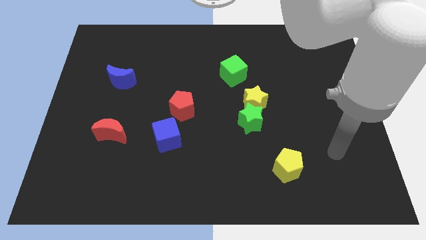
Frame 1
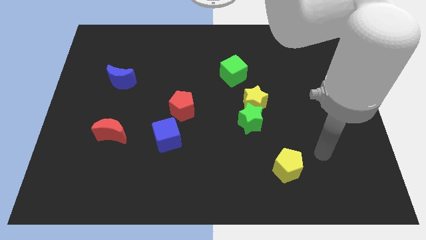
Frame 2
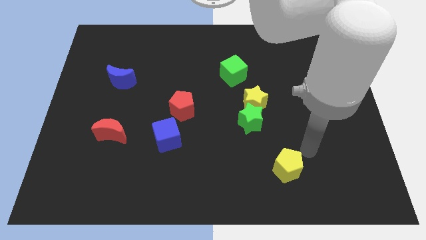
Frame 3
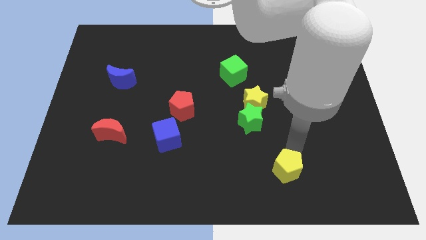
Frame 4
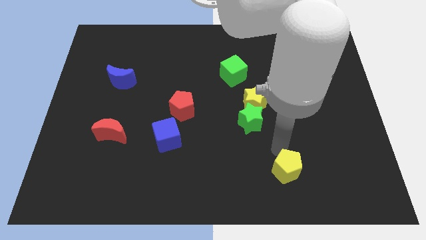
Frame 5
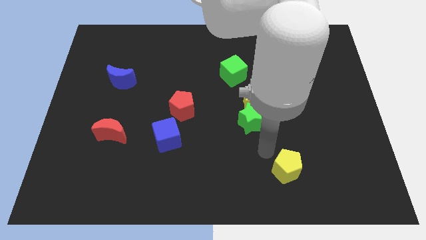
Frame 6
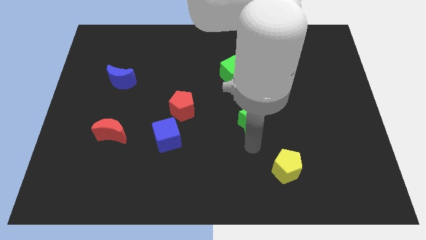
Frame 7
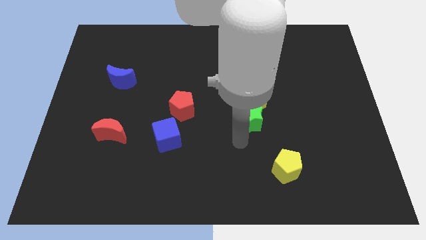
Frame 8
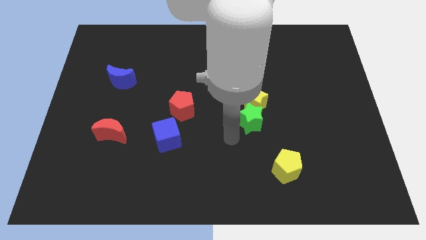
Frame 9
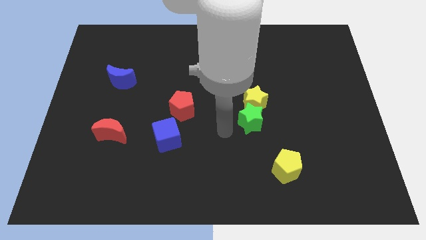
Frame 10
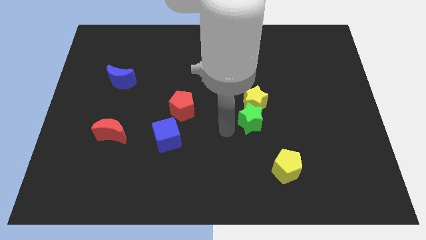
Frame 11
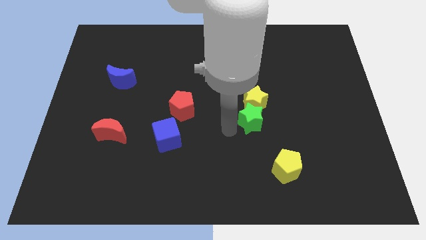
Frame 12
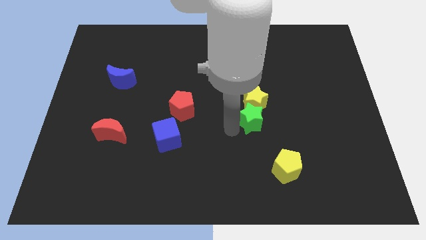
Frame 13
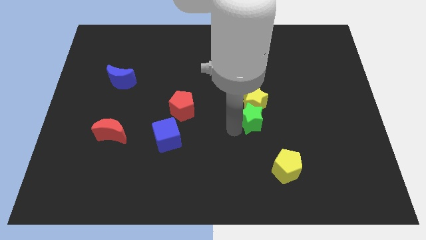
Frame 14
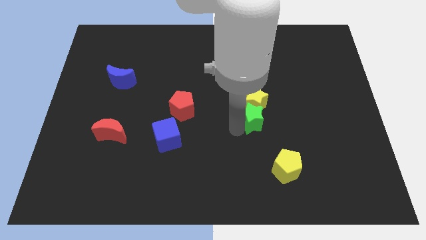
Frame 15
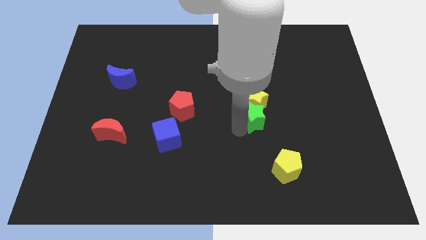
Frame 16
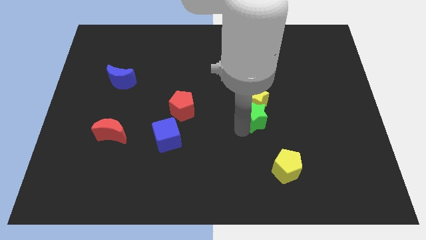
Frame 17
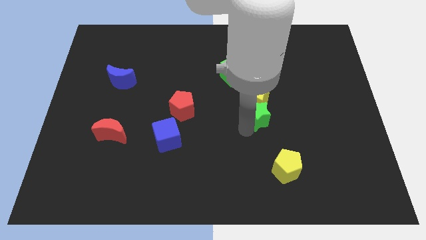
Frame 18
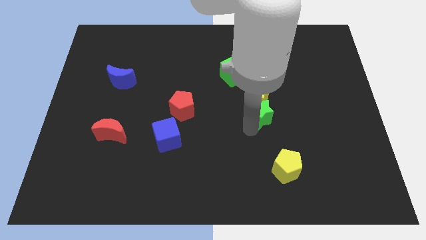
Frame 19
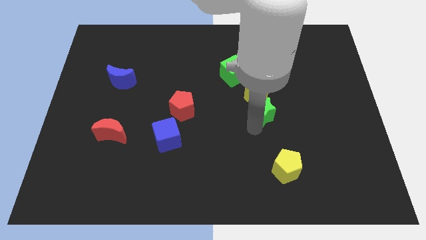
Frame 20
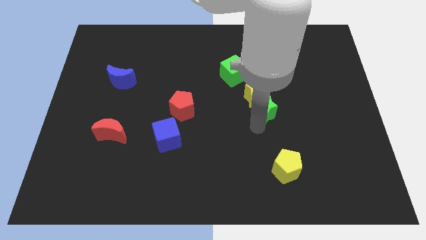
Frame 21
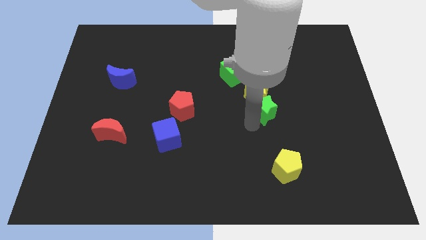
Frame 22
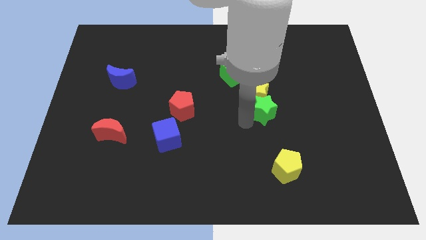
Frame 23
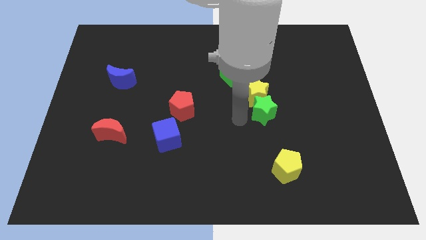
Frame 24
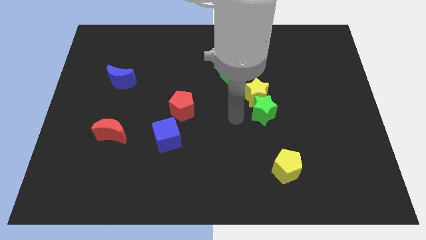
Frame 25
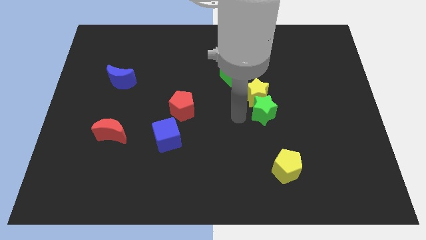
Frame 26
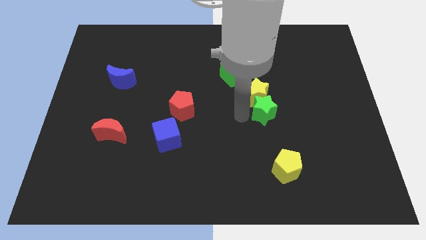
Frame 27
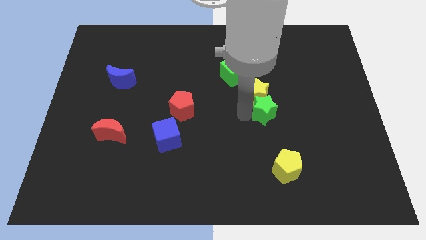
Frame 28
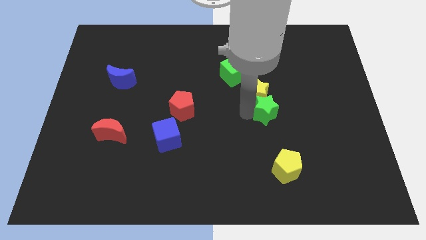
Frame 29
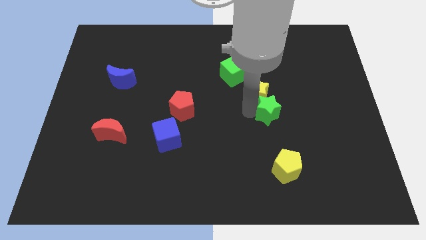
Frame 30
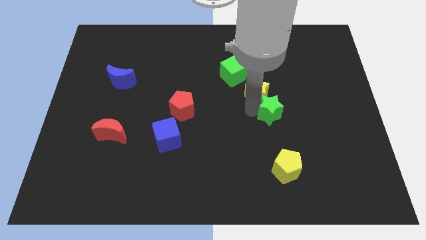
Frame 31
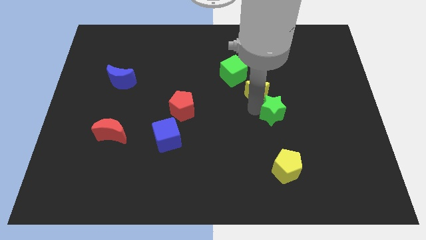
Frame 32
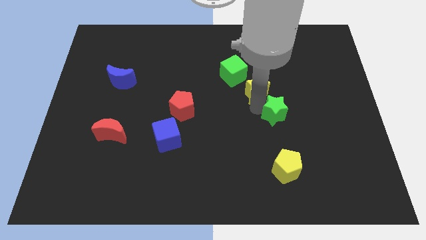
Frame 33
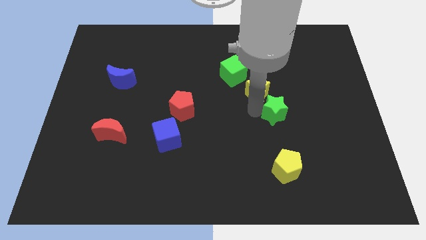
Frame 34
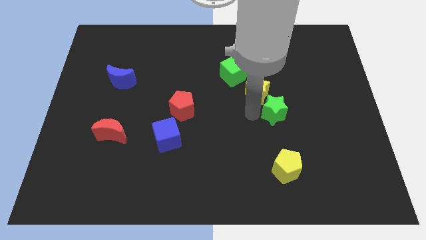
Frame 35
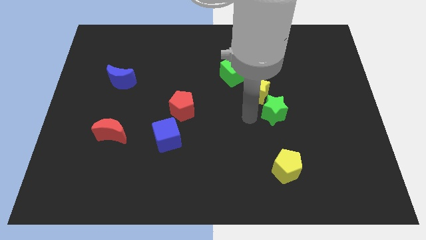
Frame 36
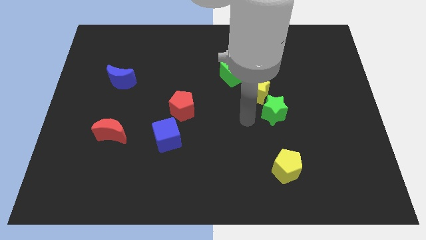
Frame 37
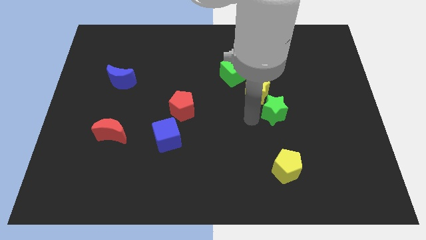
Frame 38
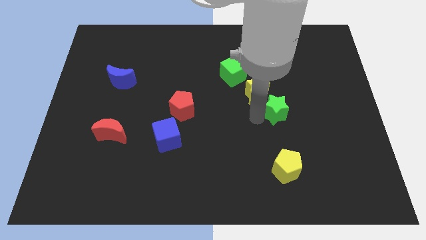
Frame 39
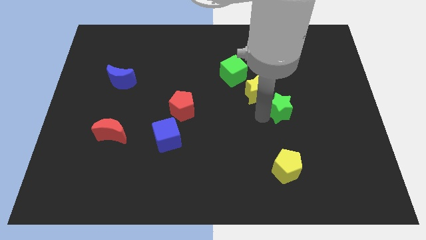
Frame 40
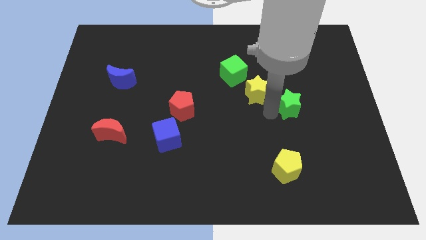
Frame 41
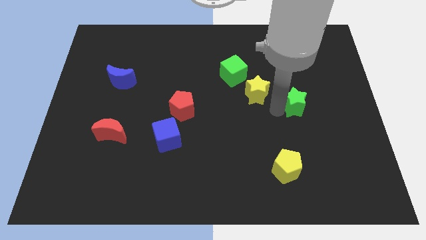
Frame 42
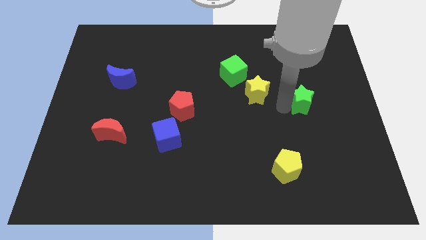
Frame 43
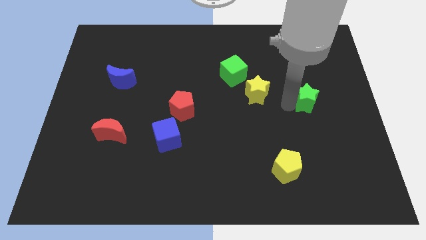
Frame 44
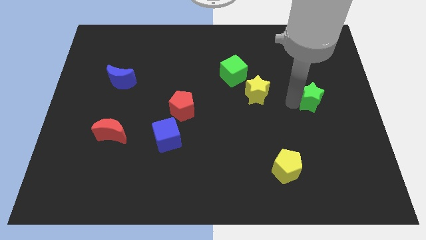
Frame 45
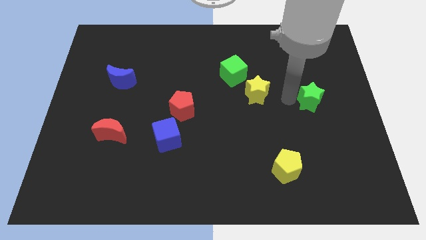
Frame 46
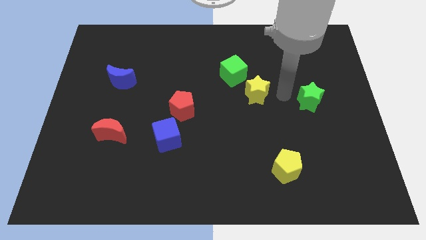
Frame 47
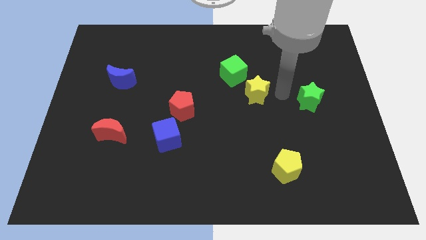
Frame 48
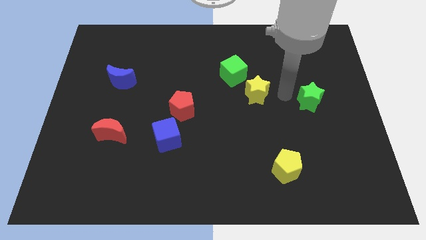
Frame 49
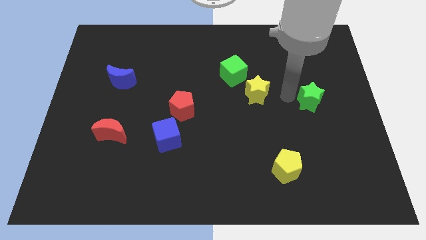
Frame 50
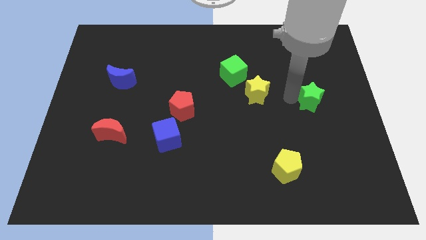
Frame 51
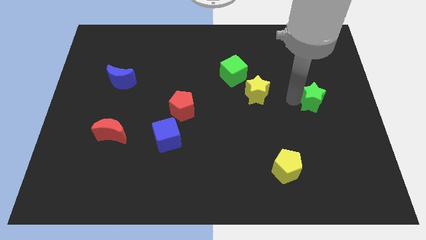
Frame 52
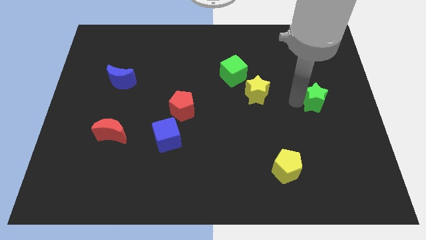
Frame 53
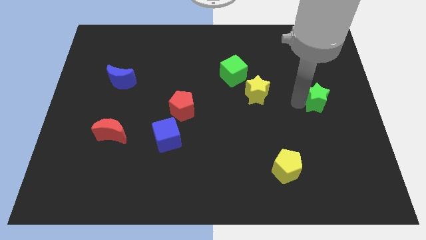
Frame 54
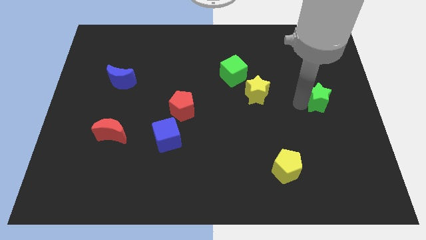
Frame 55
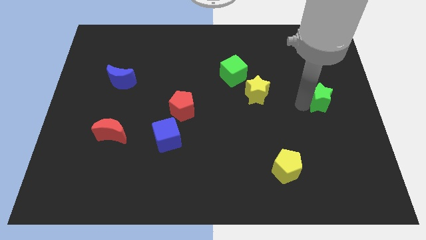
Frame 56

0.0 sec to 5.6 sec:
push the green star to the center right

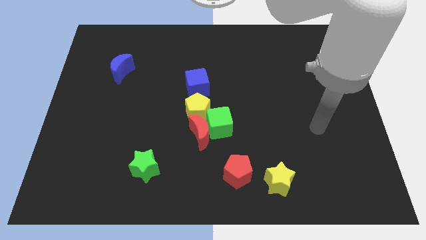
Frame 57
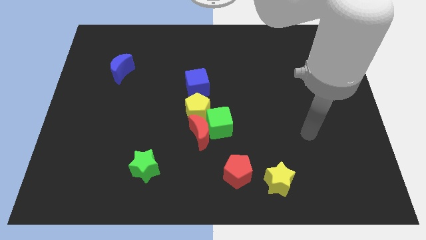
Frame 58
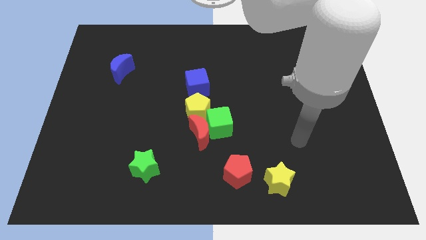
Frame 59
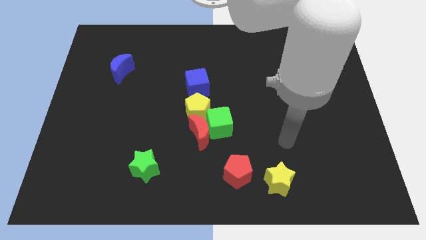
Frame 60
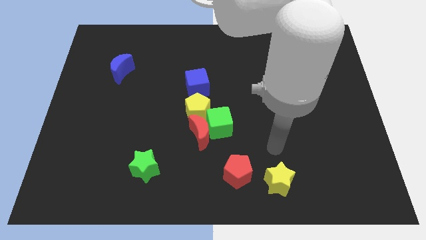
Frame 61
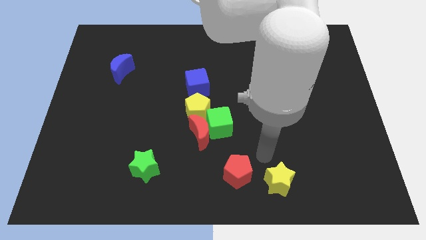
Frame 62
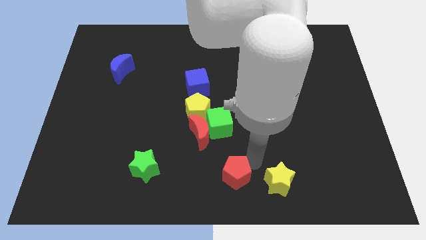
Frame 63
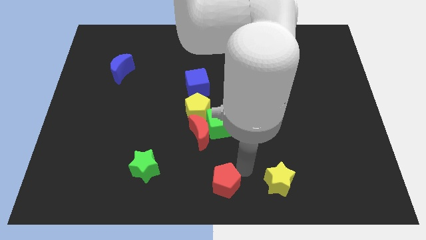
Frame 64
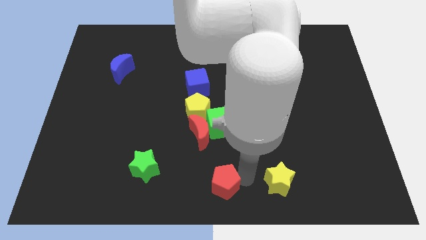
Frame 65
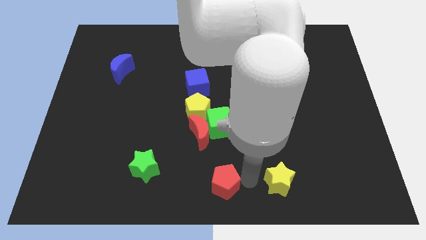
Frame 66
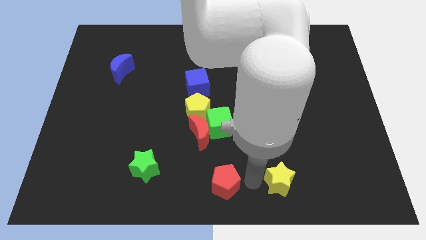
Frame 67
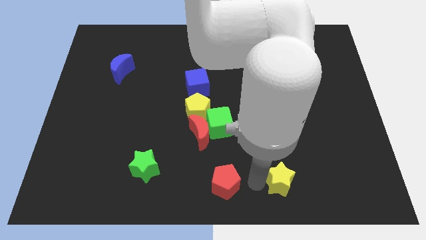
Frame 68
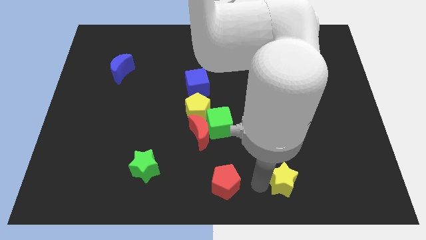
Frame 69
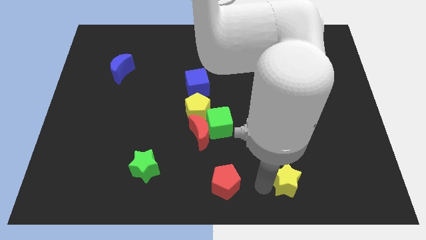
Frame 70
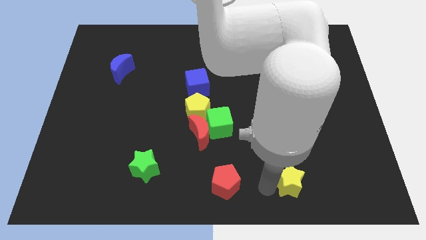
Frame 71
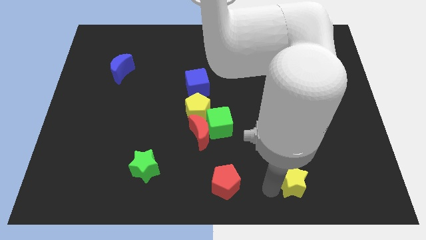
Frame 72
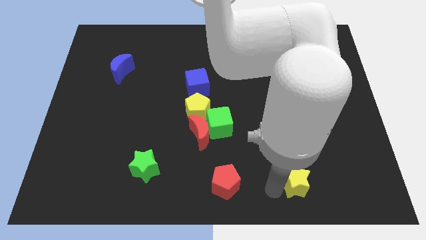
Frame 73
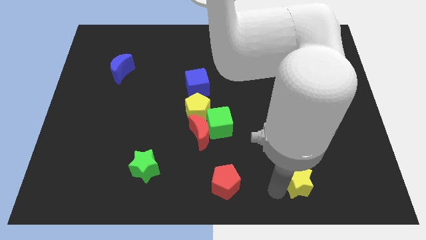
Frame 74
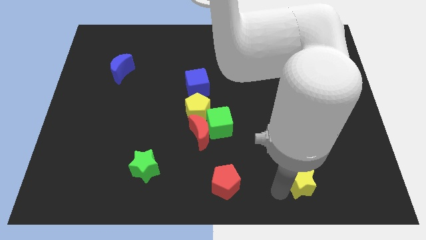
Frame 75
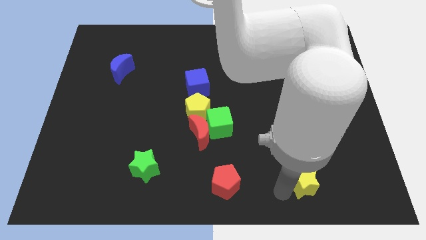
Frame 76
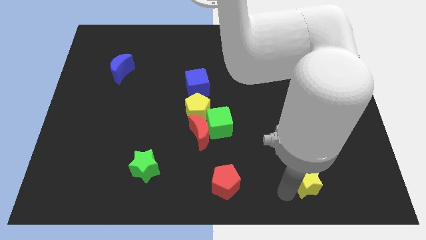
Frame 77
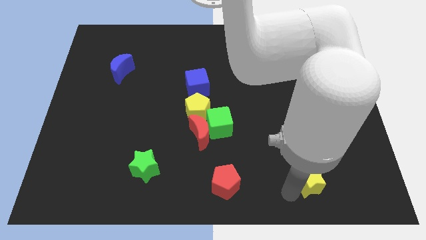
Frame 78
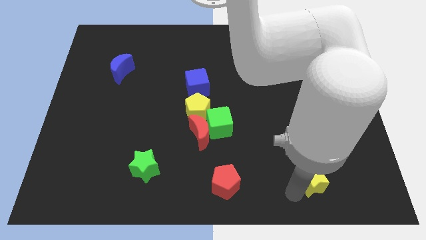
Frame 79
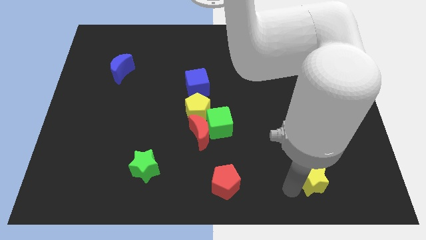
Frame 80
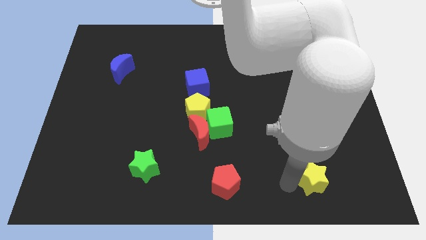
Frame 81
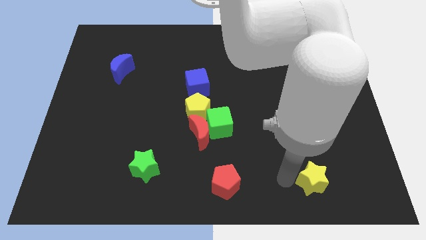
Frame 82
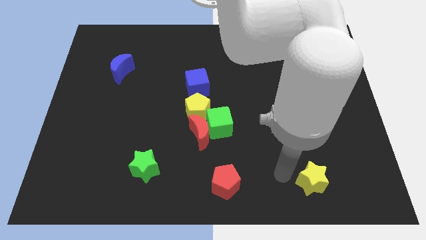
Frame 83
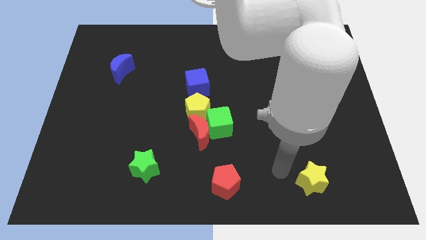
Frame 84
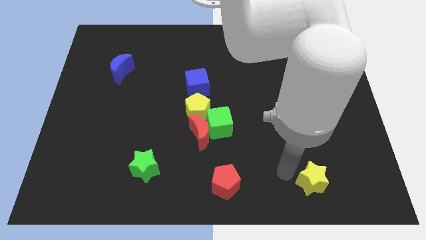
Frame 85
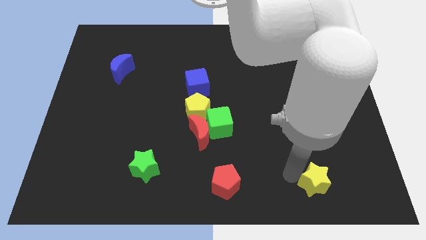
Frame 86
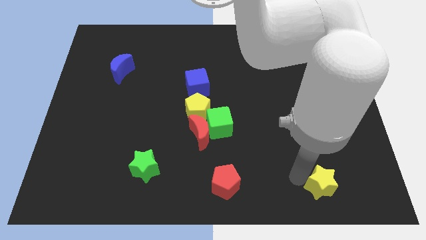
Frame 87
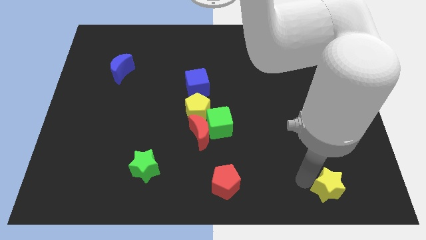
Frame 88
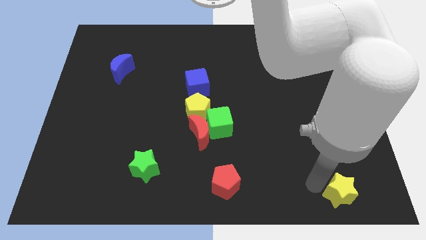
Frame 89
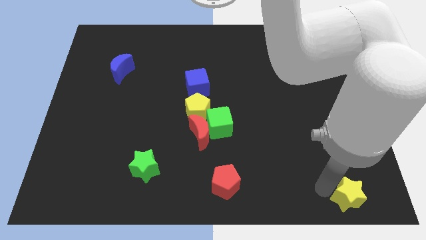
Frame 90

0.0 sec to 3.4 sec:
move the yellow star to the bottom right corner
